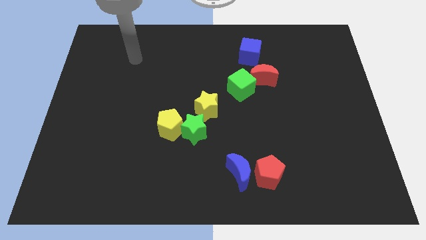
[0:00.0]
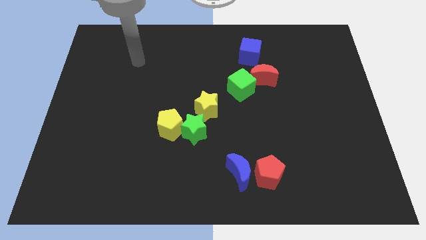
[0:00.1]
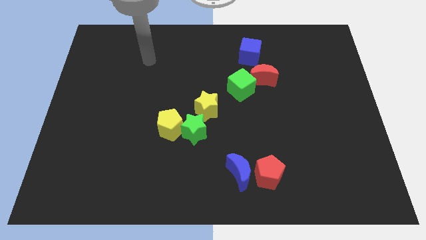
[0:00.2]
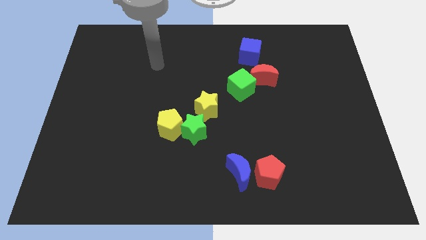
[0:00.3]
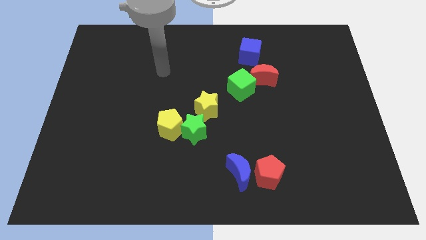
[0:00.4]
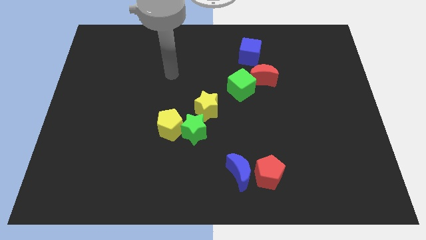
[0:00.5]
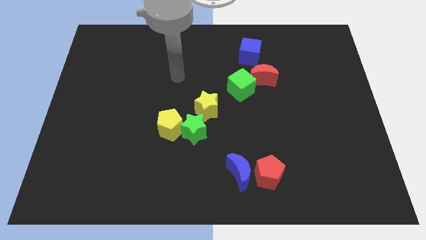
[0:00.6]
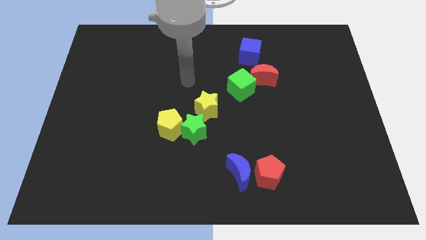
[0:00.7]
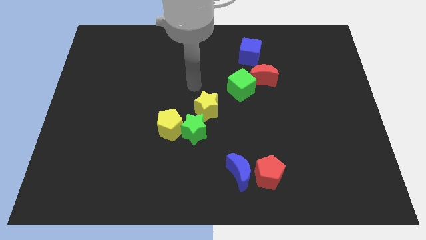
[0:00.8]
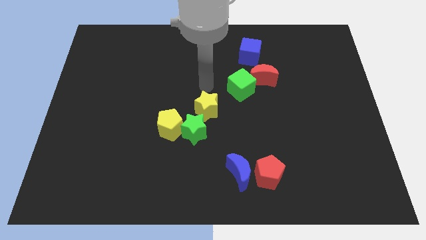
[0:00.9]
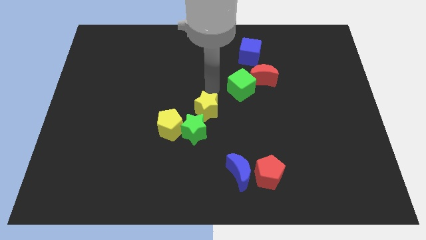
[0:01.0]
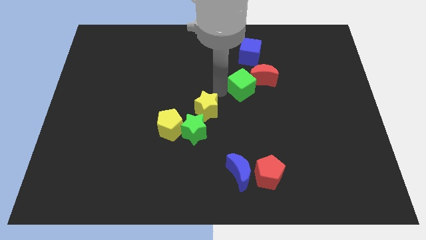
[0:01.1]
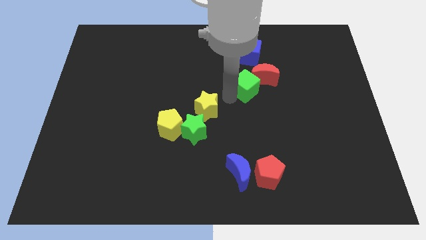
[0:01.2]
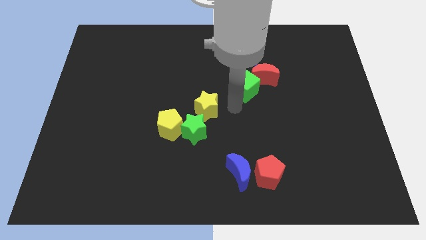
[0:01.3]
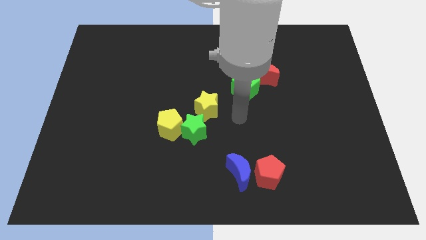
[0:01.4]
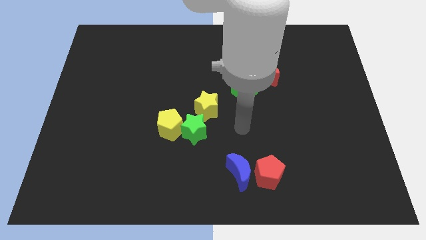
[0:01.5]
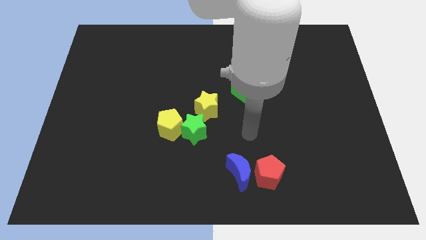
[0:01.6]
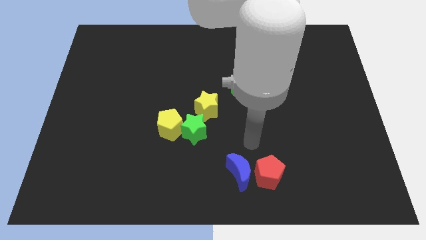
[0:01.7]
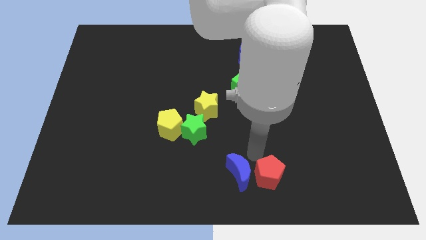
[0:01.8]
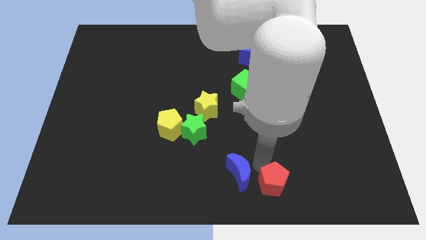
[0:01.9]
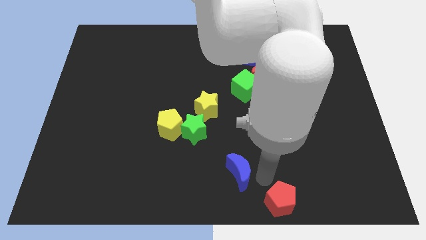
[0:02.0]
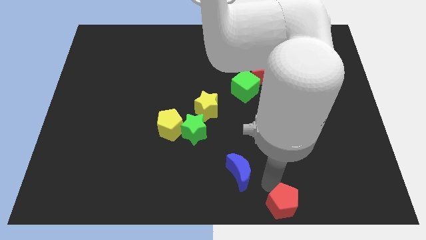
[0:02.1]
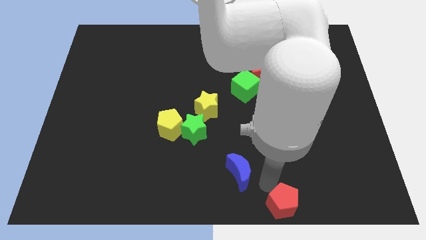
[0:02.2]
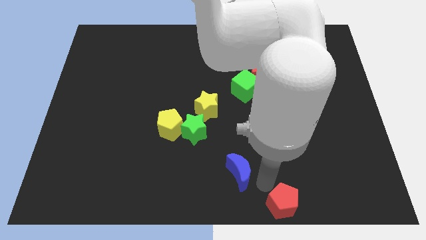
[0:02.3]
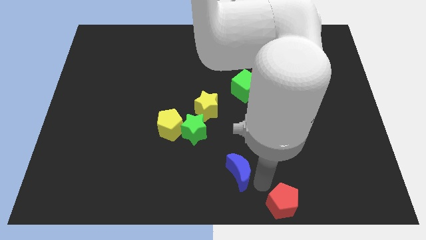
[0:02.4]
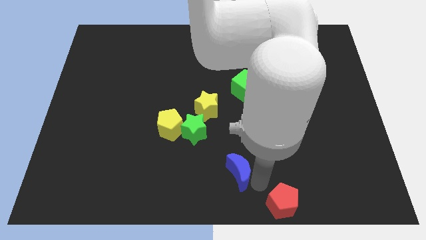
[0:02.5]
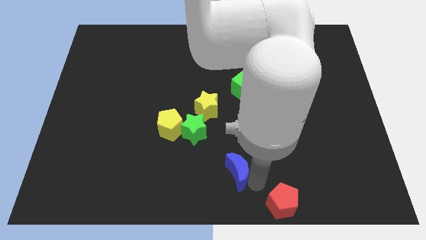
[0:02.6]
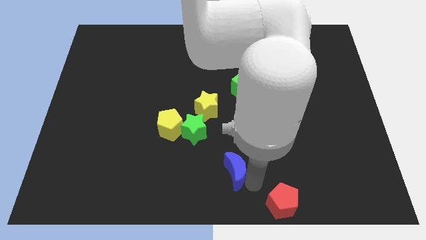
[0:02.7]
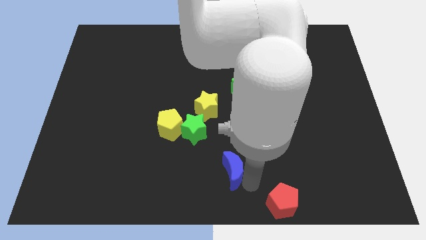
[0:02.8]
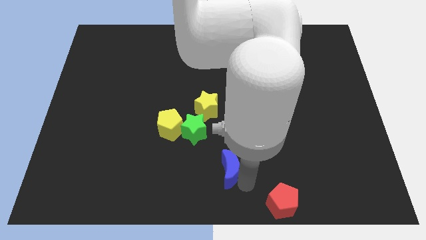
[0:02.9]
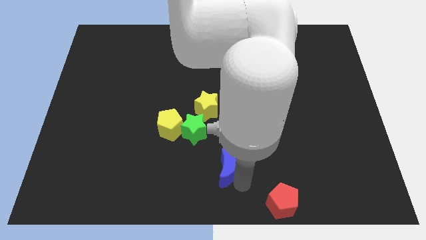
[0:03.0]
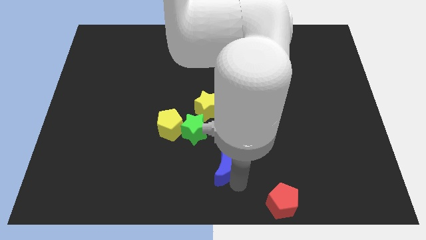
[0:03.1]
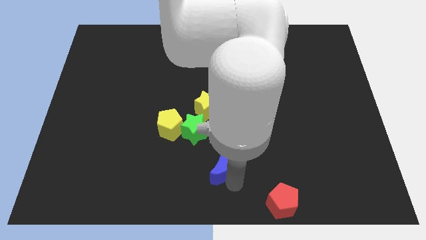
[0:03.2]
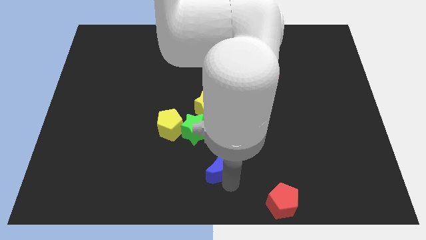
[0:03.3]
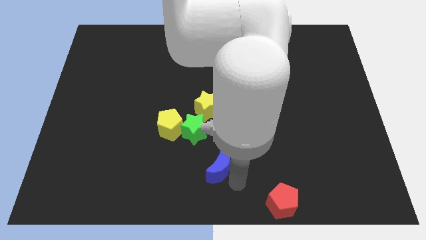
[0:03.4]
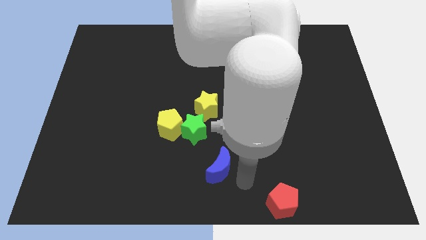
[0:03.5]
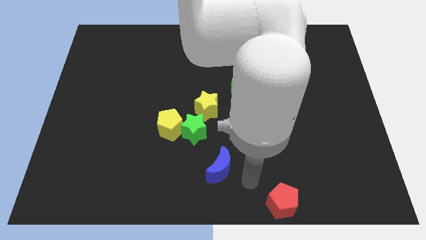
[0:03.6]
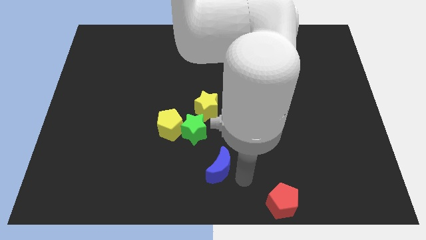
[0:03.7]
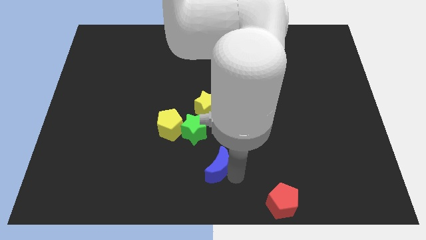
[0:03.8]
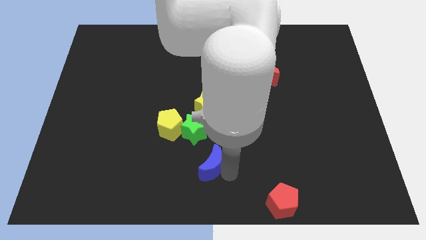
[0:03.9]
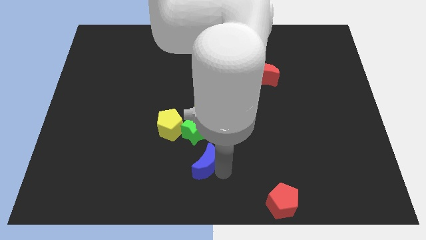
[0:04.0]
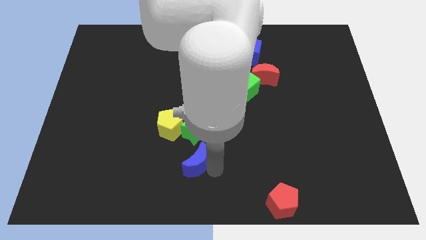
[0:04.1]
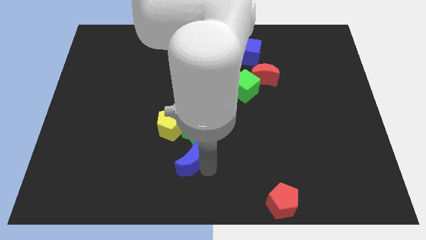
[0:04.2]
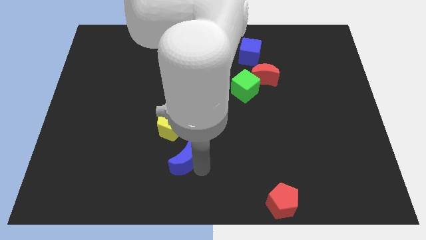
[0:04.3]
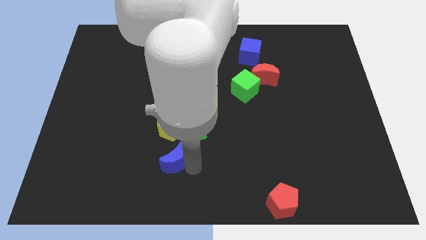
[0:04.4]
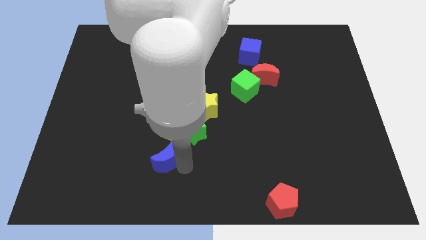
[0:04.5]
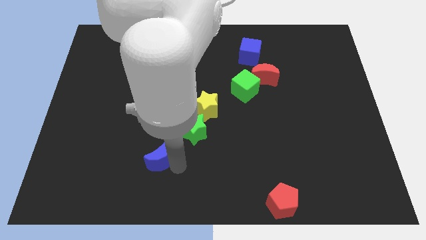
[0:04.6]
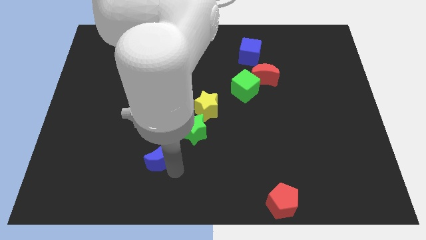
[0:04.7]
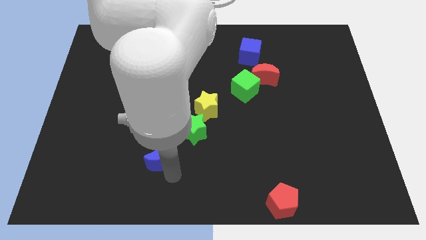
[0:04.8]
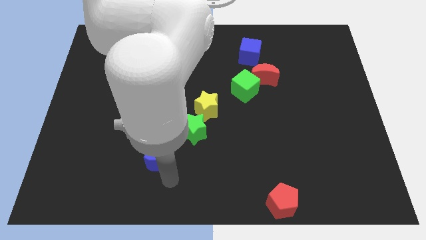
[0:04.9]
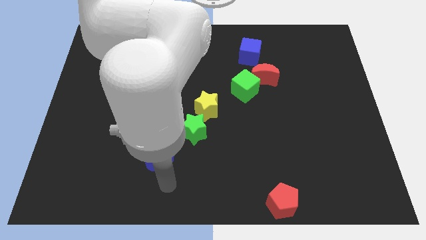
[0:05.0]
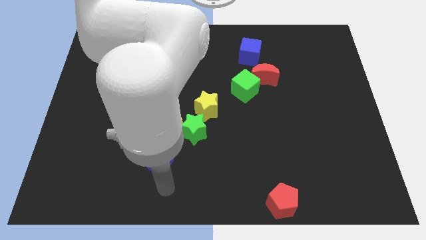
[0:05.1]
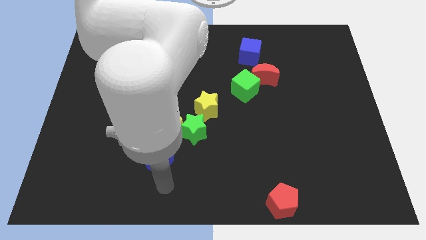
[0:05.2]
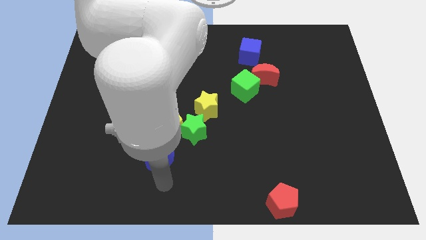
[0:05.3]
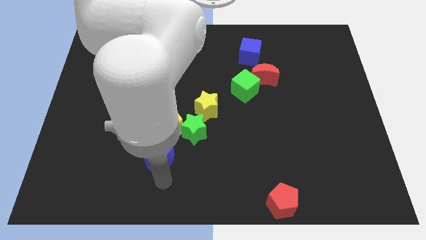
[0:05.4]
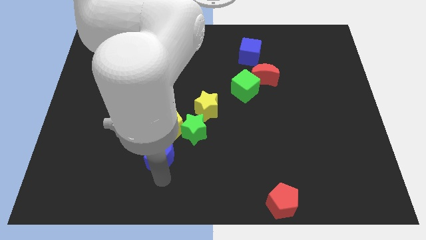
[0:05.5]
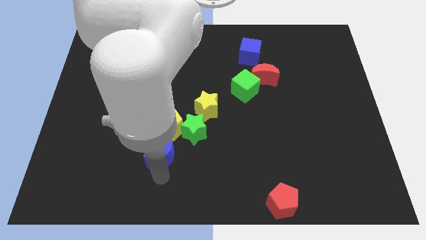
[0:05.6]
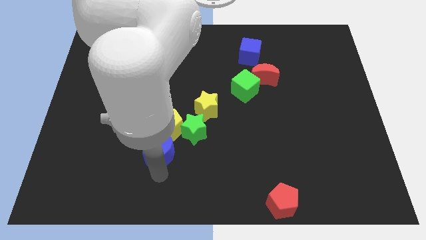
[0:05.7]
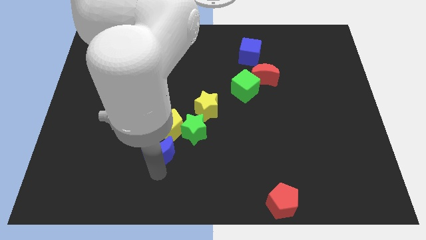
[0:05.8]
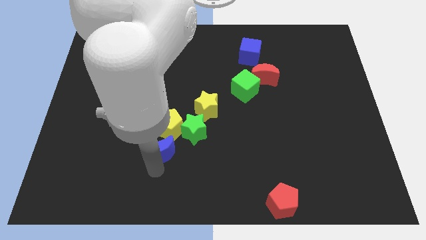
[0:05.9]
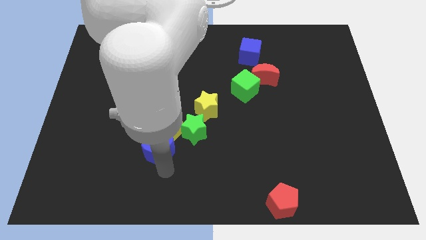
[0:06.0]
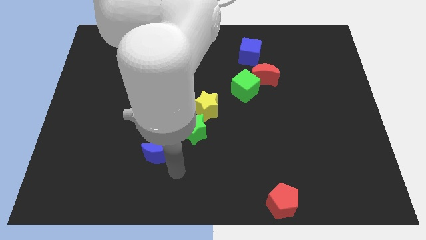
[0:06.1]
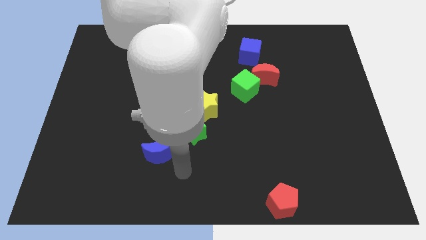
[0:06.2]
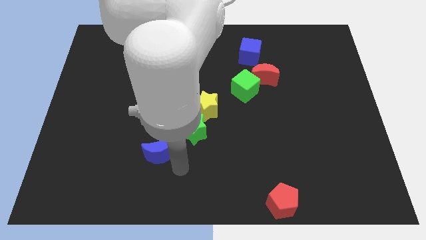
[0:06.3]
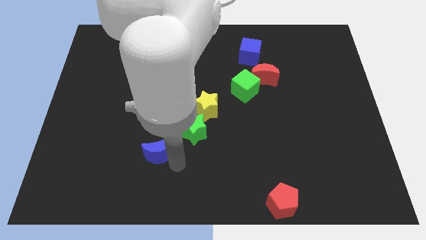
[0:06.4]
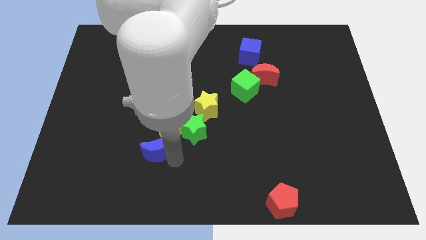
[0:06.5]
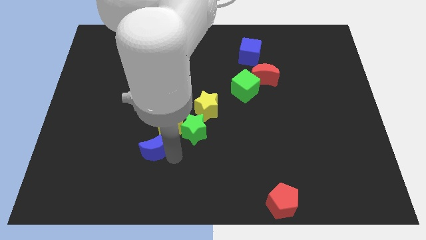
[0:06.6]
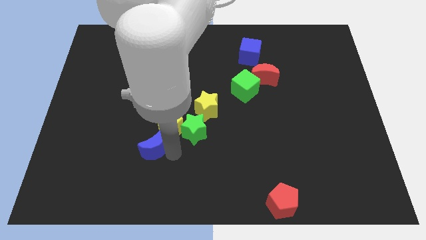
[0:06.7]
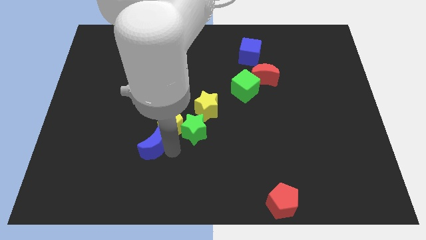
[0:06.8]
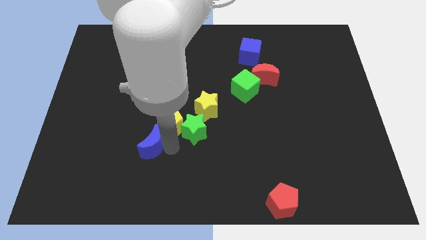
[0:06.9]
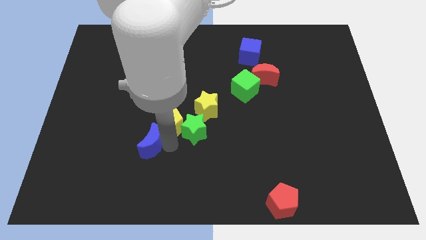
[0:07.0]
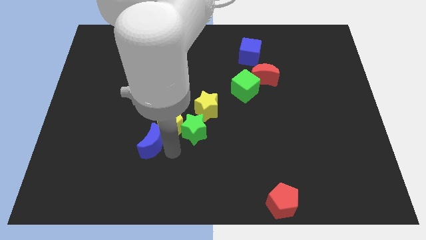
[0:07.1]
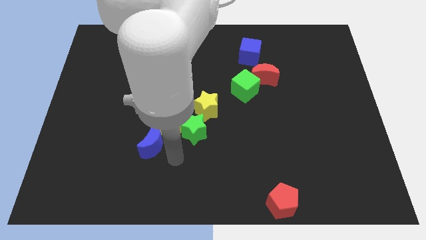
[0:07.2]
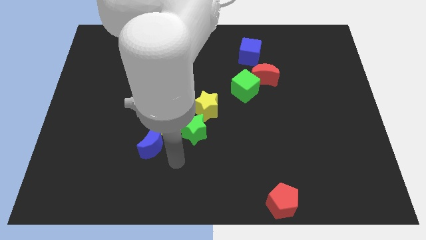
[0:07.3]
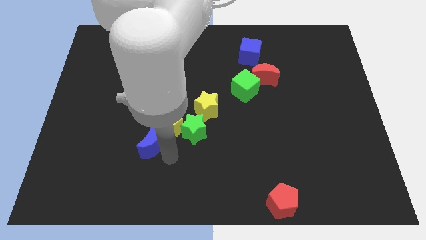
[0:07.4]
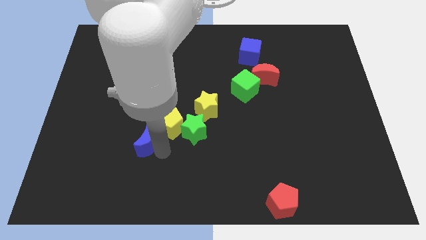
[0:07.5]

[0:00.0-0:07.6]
slide the blue moon to the left side of the yellow pentagon

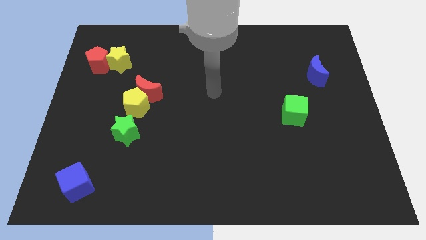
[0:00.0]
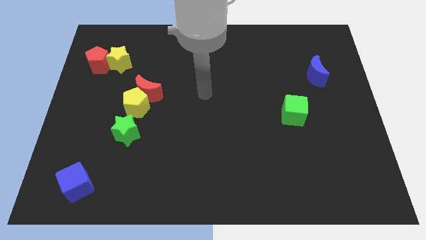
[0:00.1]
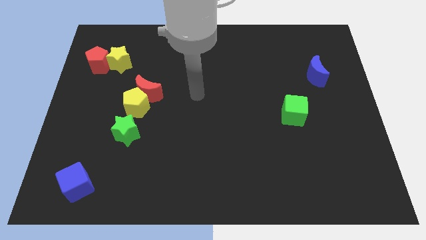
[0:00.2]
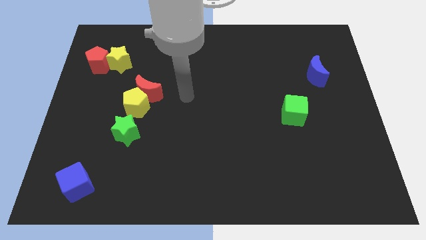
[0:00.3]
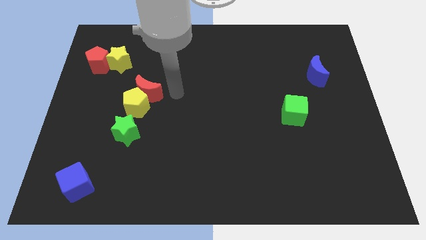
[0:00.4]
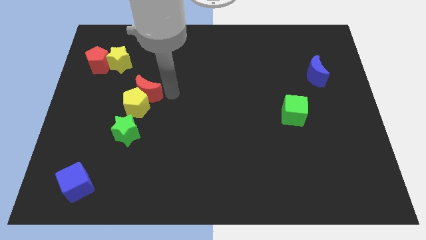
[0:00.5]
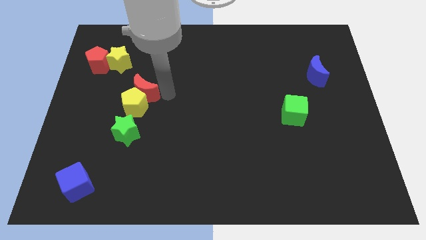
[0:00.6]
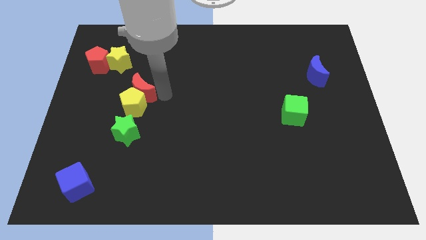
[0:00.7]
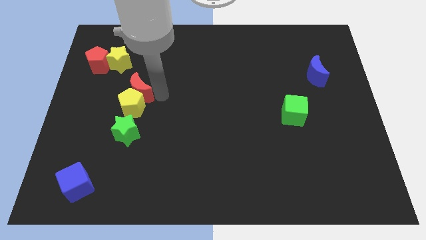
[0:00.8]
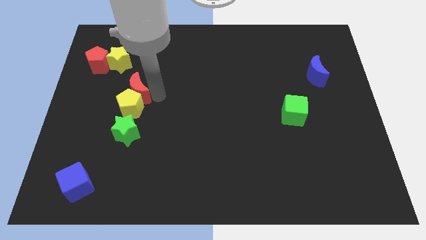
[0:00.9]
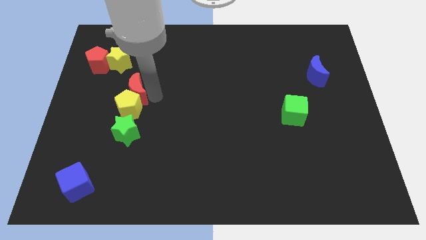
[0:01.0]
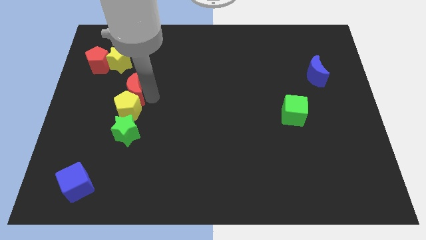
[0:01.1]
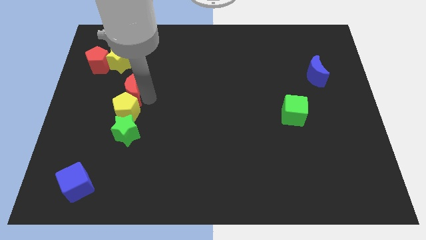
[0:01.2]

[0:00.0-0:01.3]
slide the red moon to the bottom side of the yellow star
